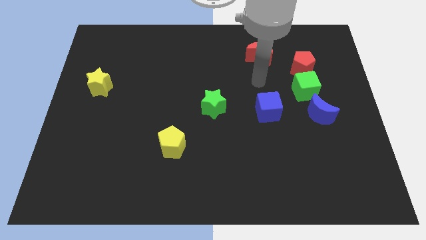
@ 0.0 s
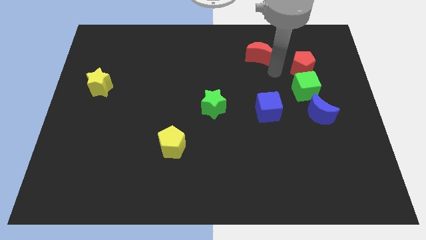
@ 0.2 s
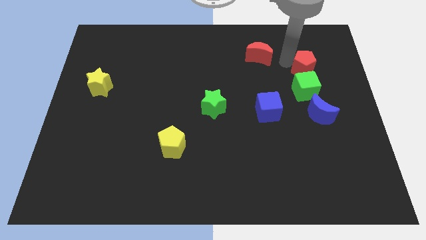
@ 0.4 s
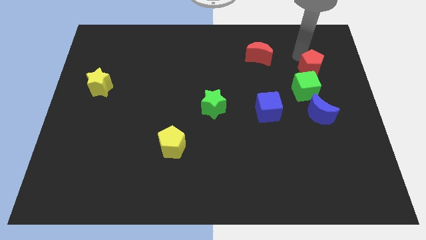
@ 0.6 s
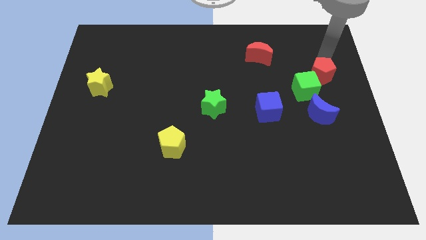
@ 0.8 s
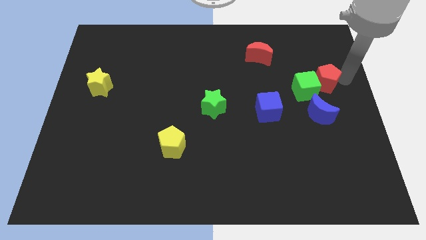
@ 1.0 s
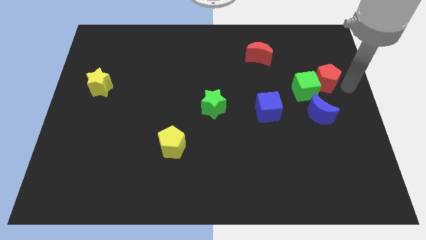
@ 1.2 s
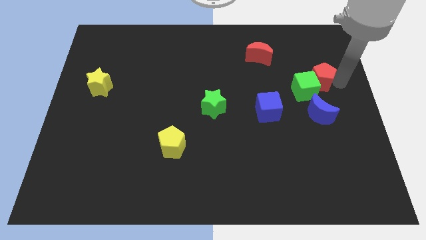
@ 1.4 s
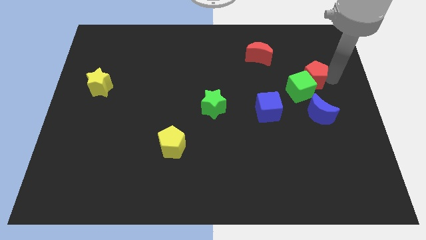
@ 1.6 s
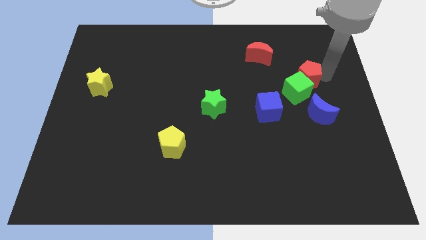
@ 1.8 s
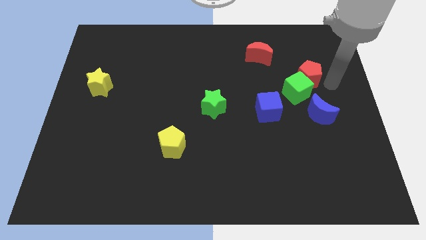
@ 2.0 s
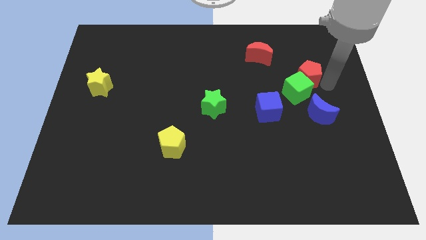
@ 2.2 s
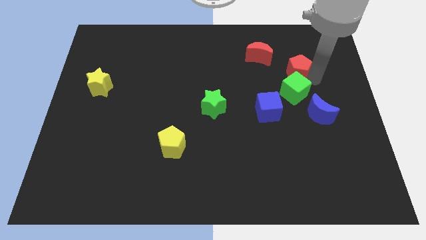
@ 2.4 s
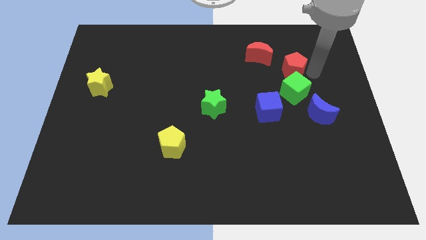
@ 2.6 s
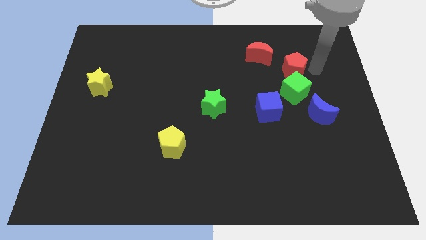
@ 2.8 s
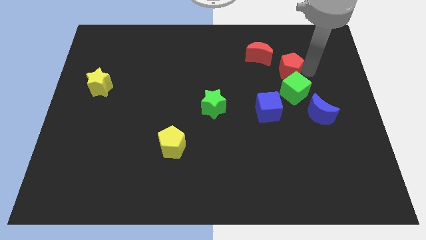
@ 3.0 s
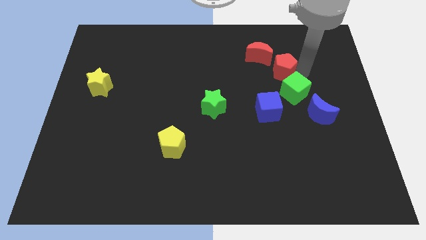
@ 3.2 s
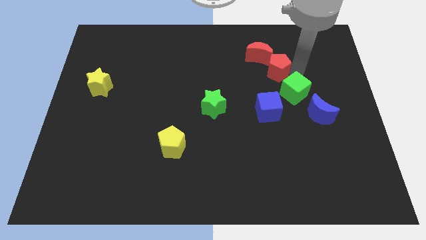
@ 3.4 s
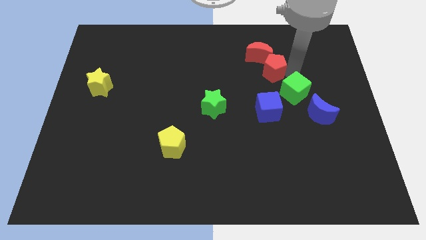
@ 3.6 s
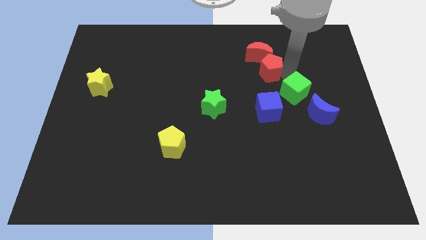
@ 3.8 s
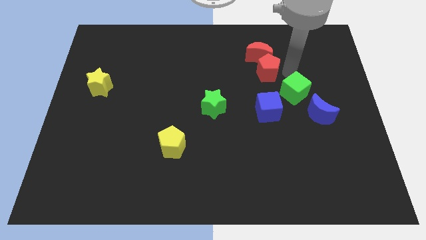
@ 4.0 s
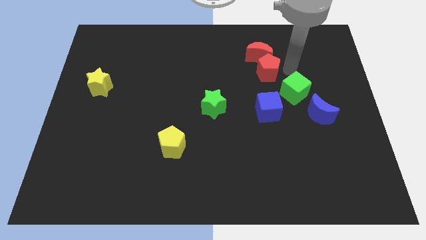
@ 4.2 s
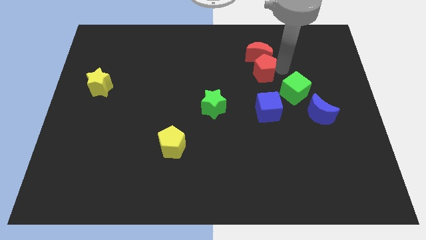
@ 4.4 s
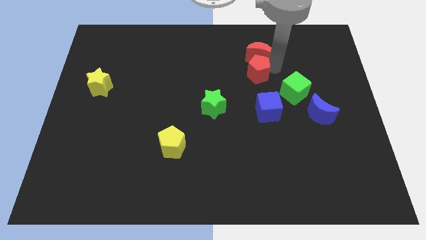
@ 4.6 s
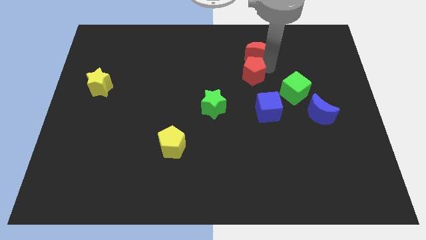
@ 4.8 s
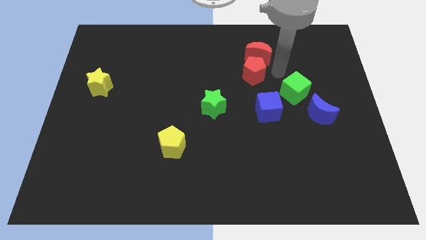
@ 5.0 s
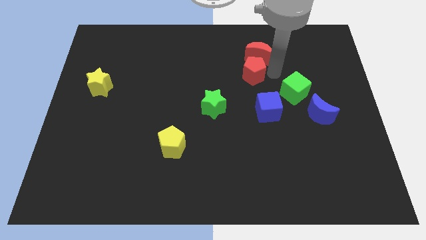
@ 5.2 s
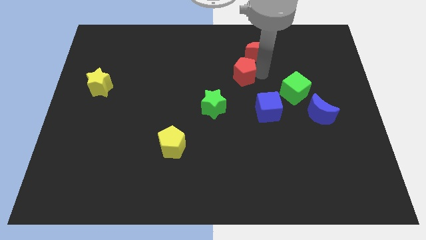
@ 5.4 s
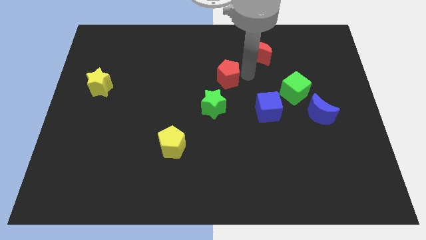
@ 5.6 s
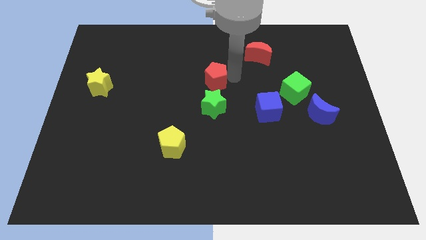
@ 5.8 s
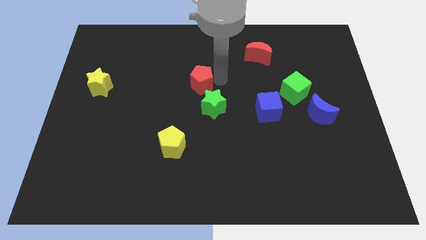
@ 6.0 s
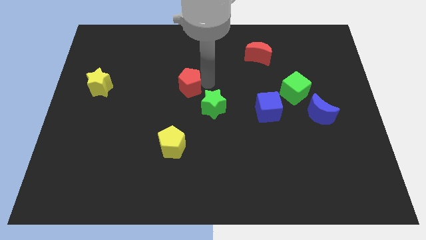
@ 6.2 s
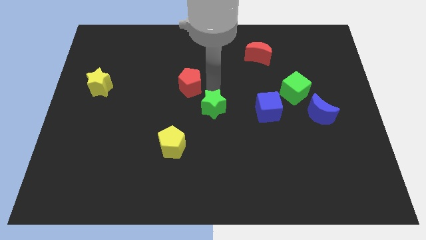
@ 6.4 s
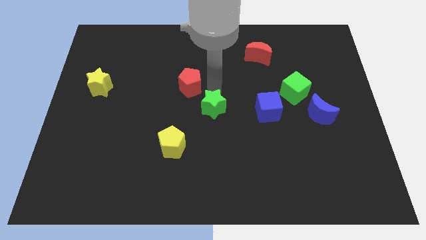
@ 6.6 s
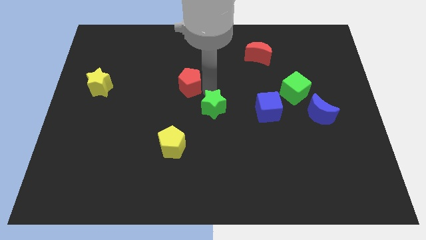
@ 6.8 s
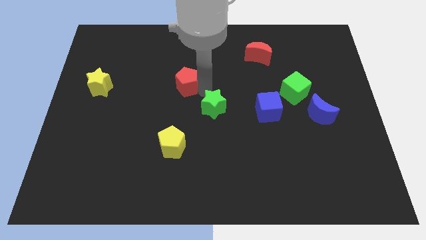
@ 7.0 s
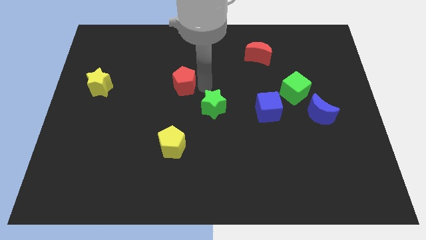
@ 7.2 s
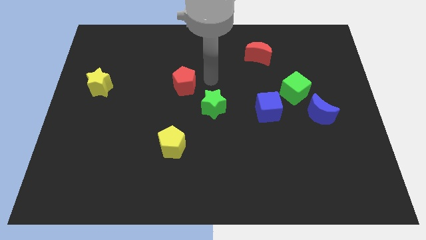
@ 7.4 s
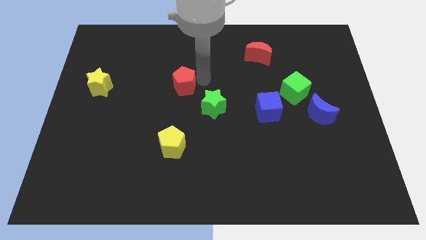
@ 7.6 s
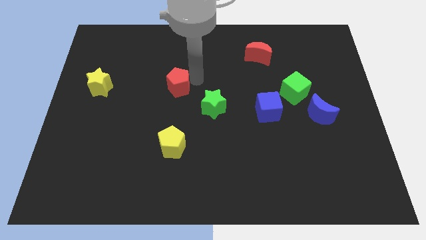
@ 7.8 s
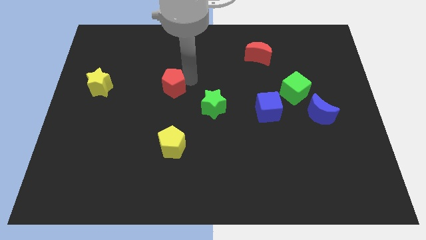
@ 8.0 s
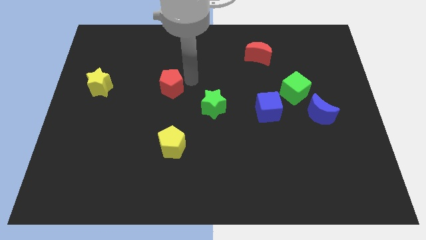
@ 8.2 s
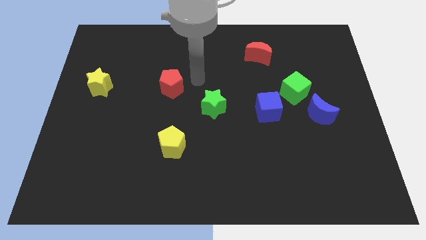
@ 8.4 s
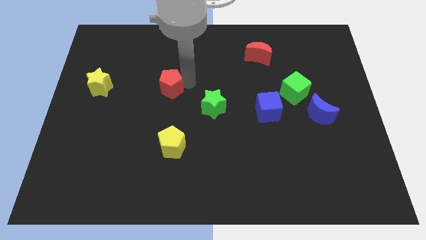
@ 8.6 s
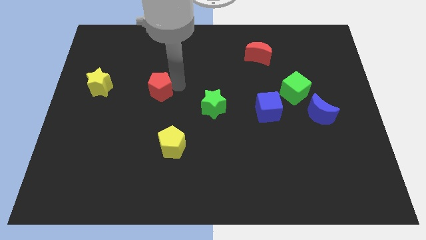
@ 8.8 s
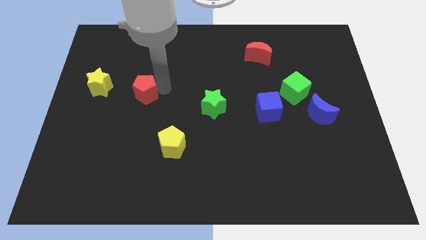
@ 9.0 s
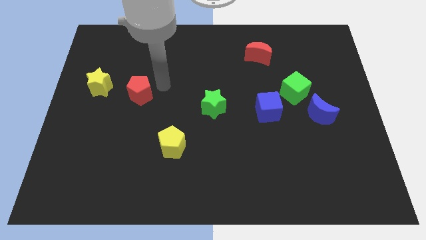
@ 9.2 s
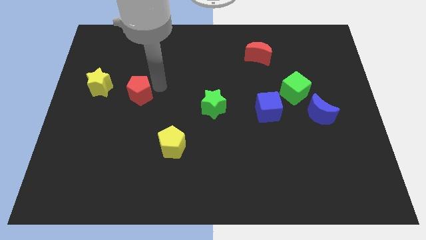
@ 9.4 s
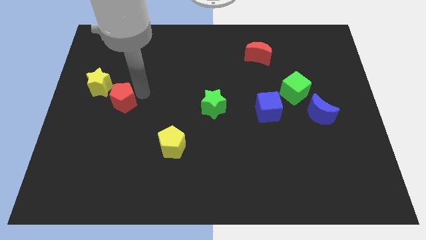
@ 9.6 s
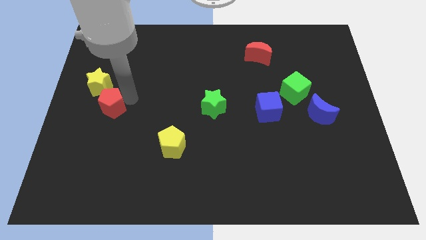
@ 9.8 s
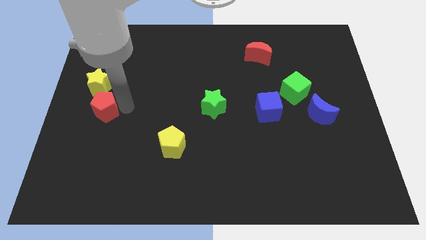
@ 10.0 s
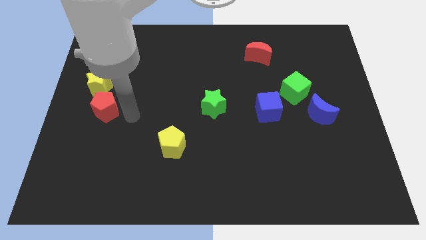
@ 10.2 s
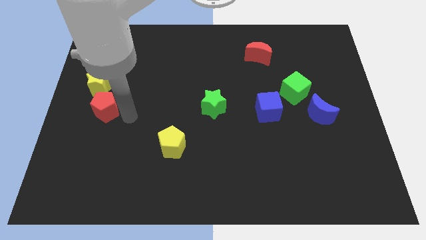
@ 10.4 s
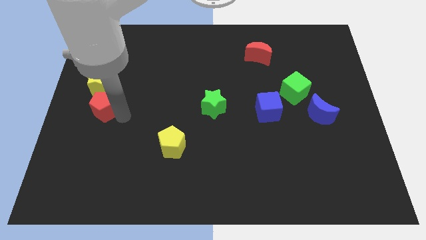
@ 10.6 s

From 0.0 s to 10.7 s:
move the red pentagon to the center left

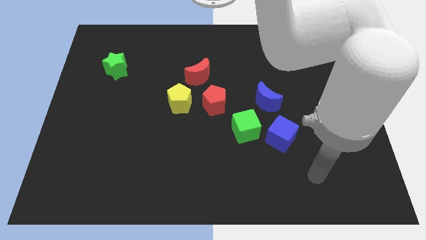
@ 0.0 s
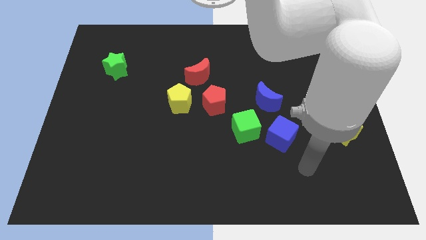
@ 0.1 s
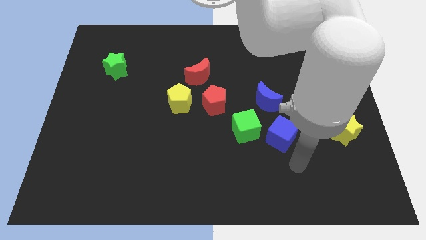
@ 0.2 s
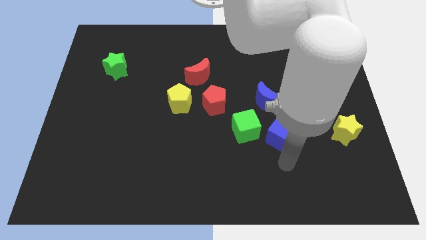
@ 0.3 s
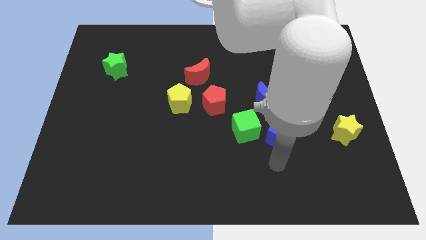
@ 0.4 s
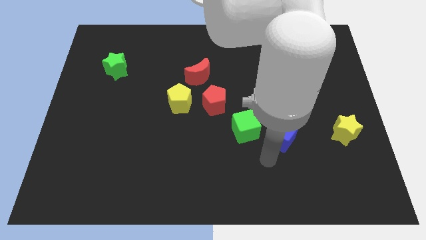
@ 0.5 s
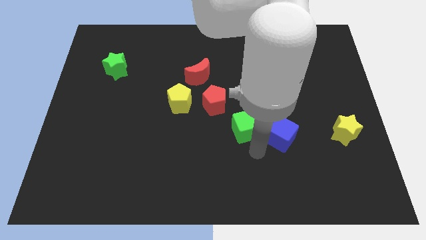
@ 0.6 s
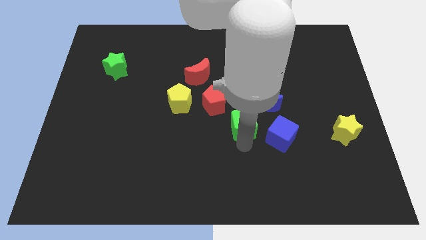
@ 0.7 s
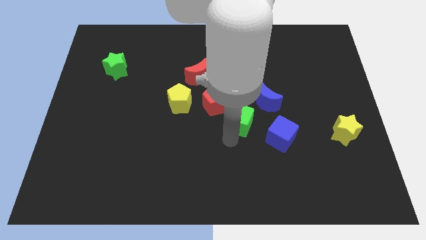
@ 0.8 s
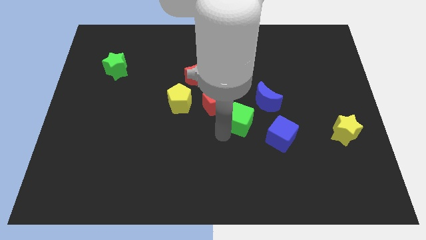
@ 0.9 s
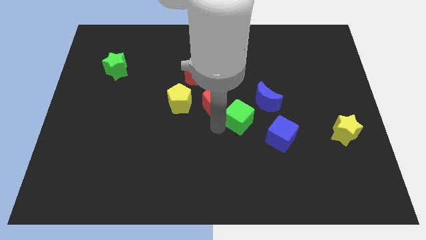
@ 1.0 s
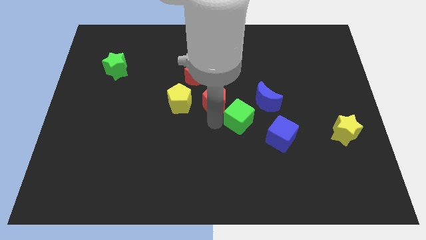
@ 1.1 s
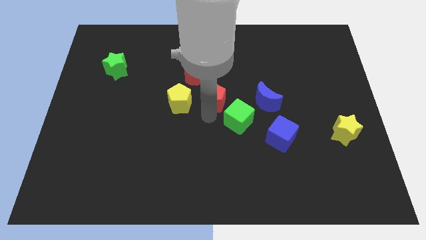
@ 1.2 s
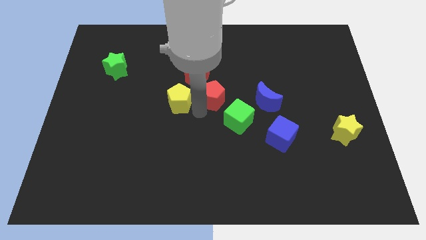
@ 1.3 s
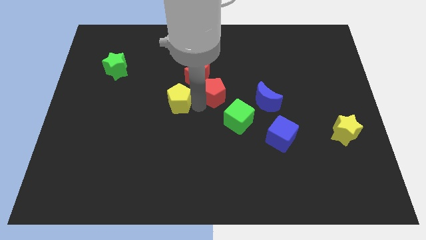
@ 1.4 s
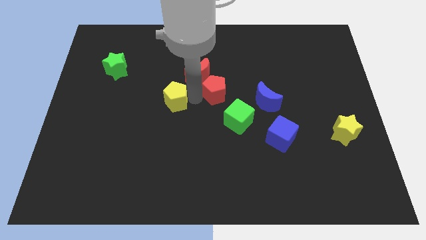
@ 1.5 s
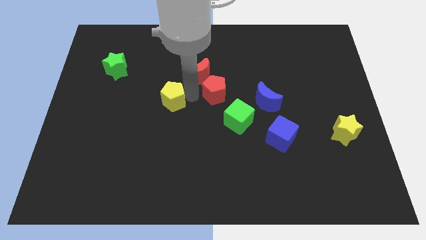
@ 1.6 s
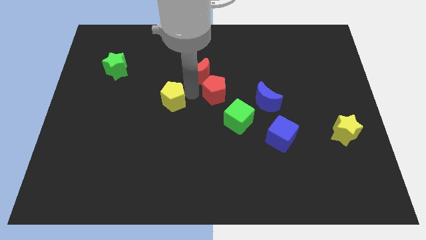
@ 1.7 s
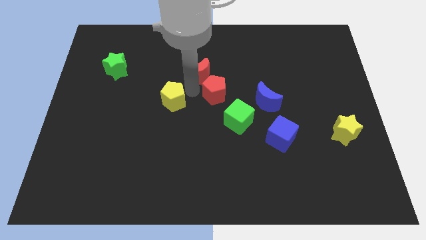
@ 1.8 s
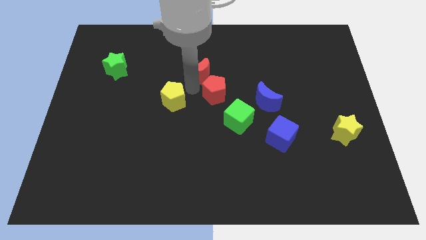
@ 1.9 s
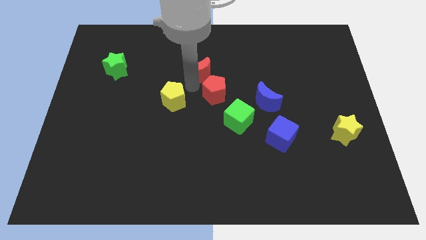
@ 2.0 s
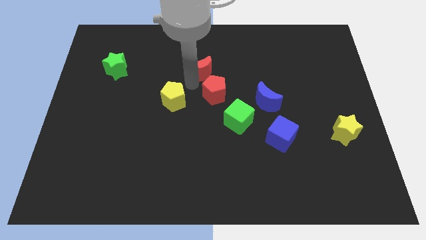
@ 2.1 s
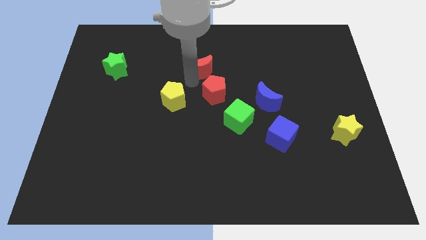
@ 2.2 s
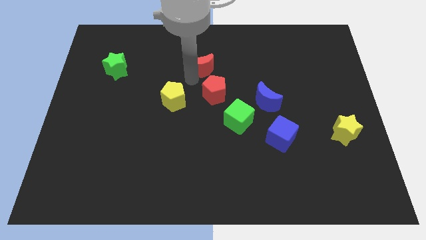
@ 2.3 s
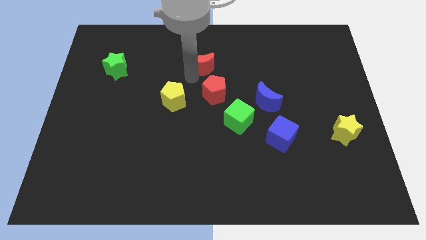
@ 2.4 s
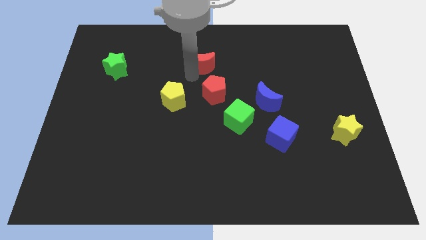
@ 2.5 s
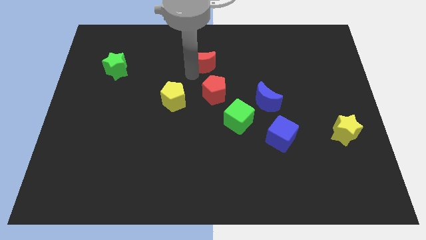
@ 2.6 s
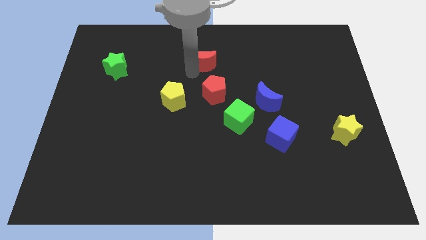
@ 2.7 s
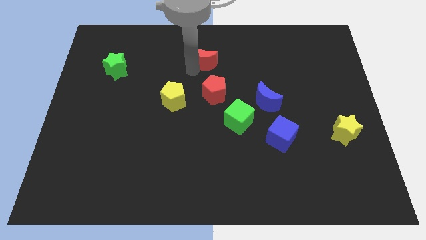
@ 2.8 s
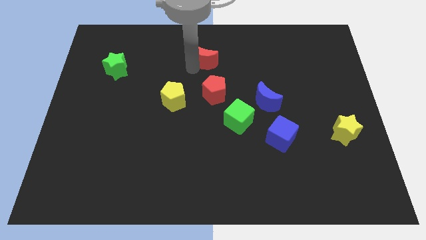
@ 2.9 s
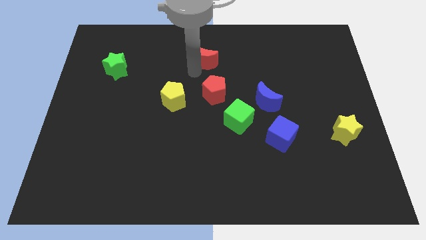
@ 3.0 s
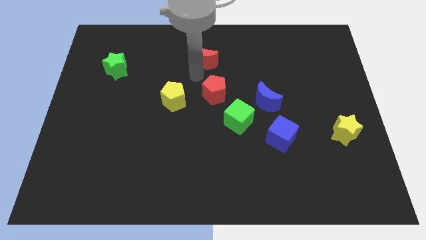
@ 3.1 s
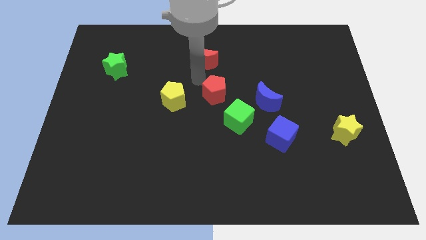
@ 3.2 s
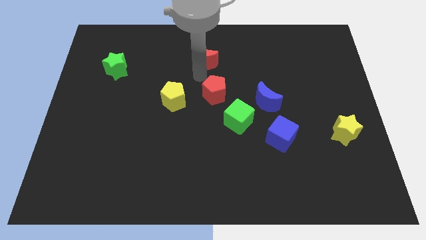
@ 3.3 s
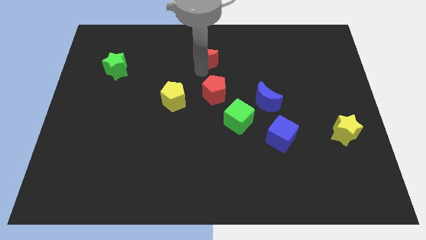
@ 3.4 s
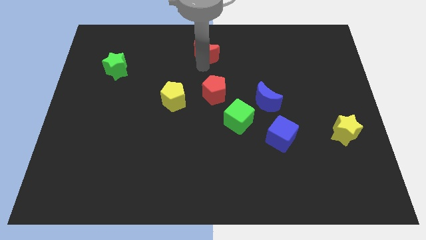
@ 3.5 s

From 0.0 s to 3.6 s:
push the red moon to the top side
